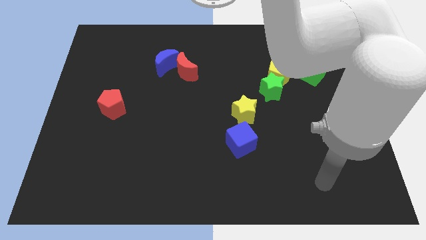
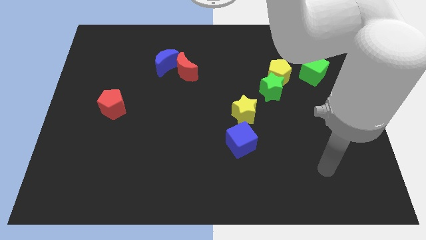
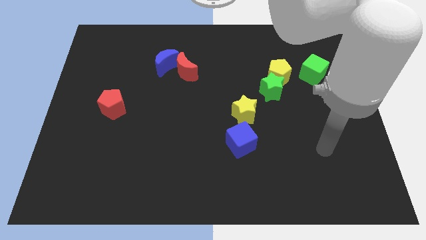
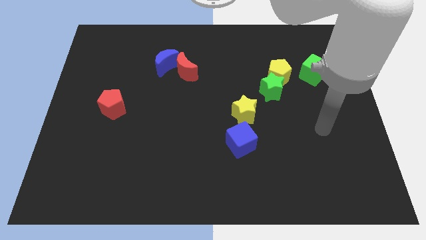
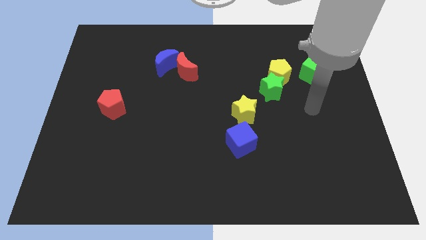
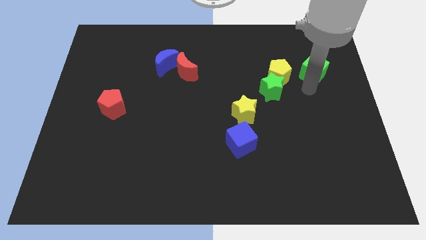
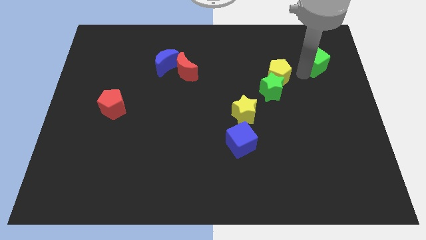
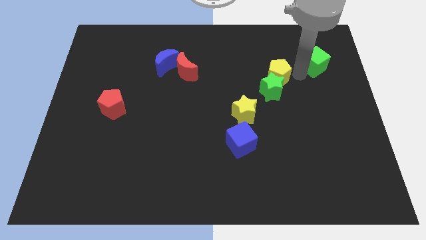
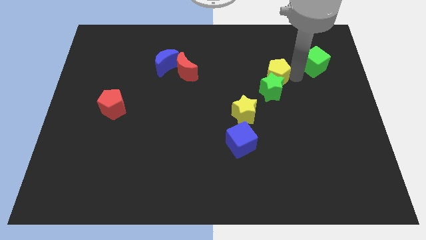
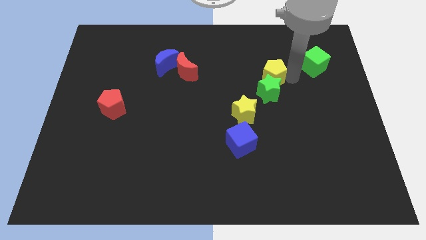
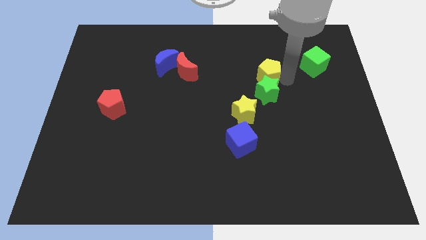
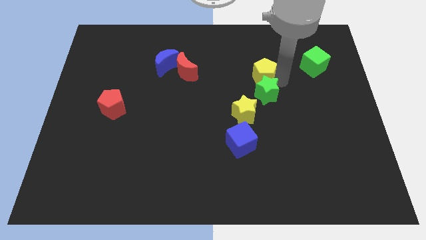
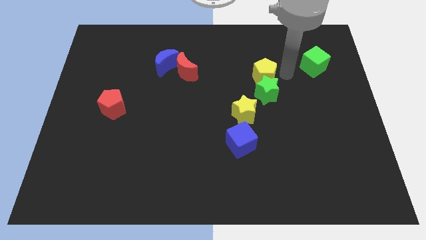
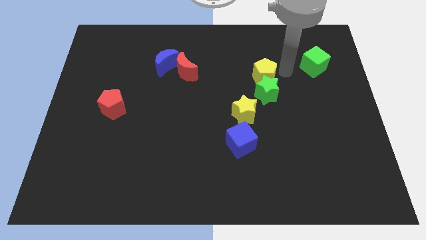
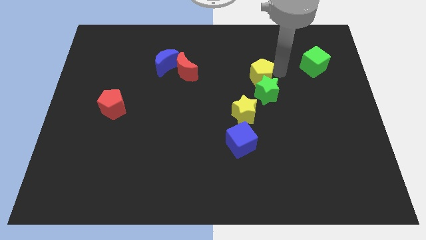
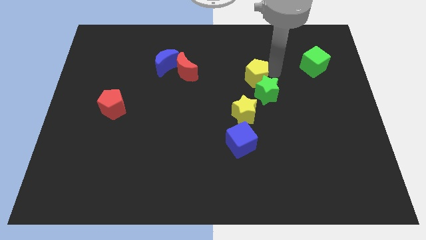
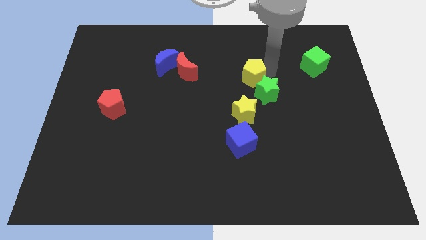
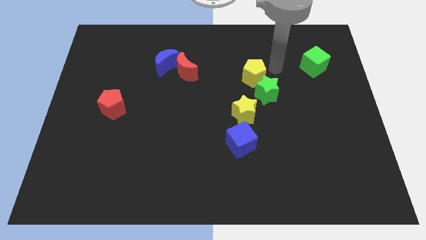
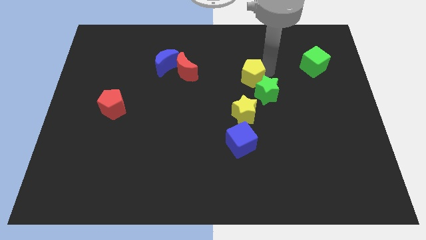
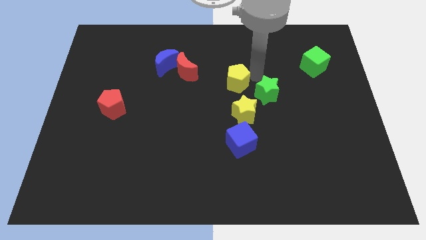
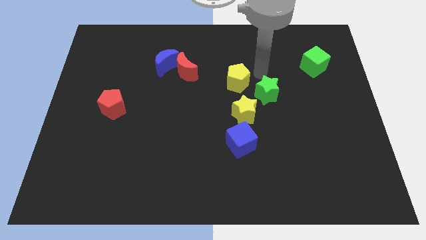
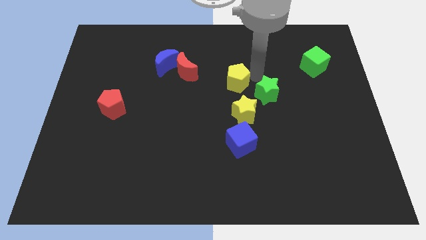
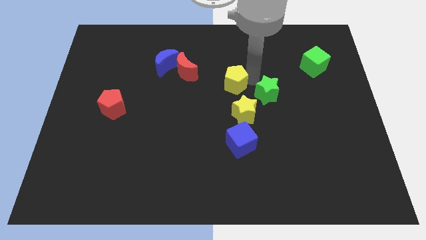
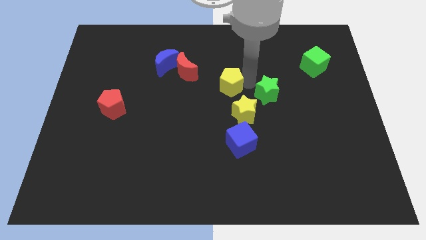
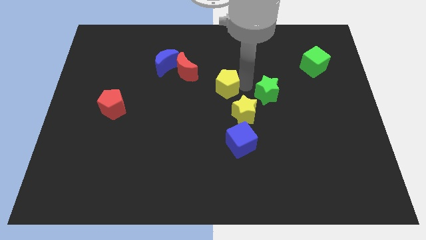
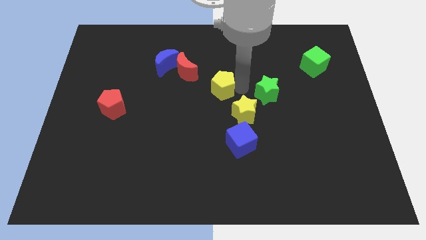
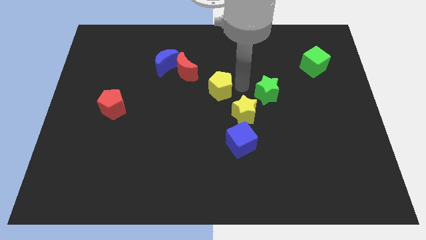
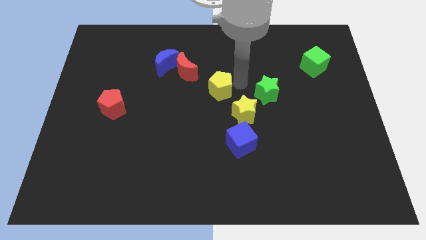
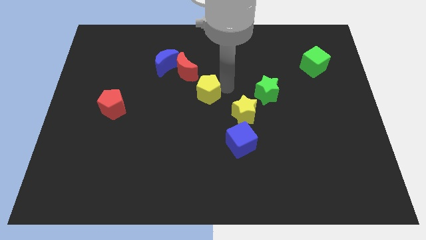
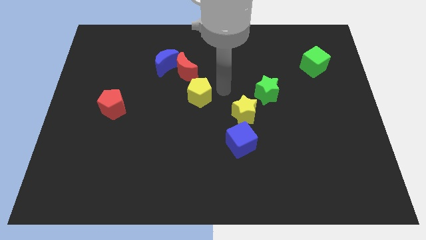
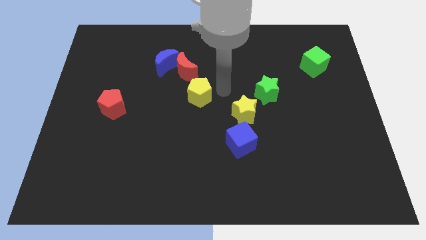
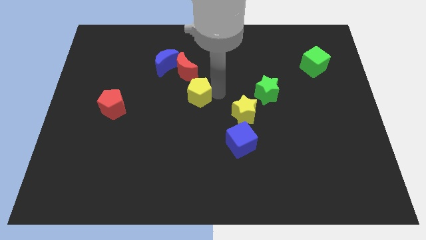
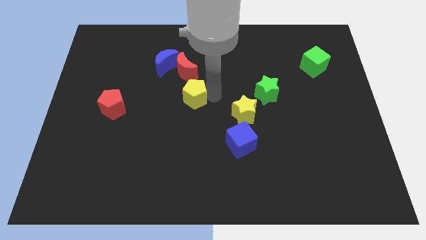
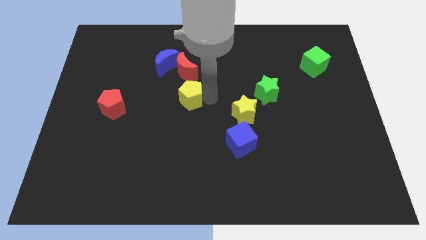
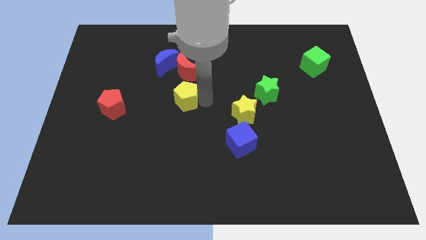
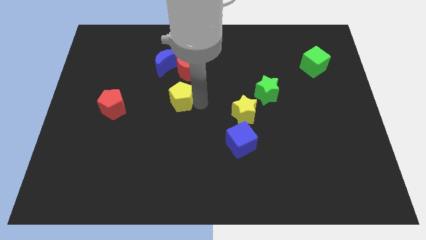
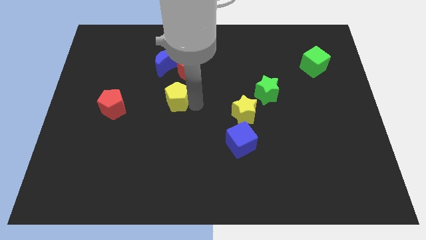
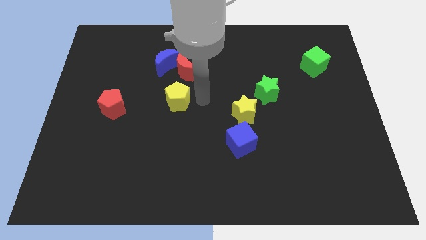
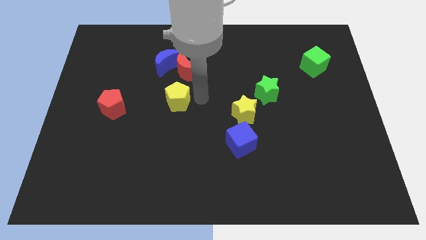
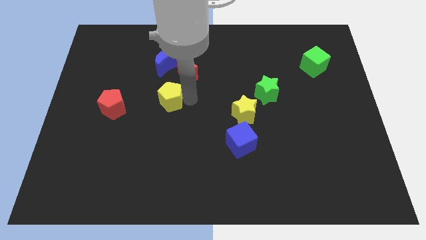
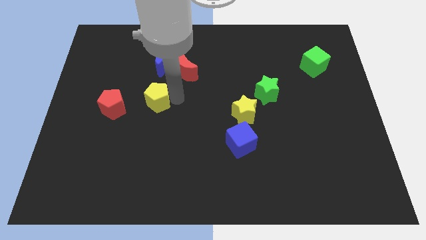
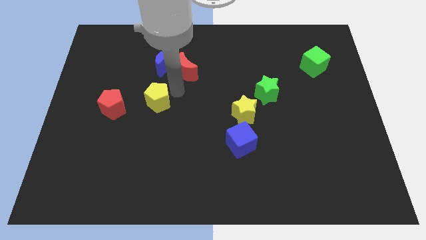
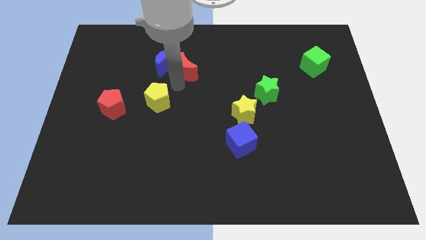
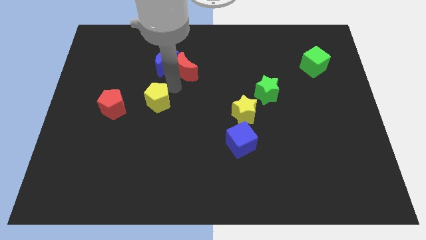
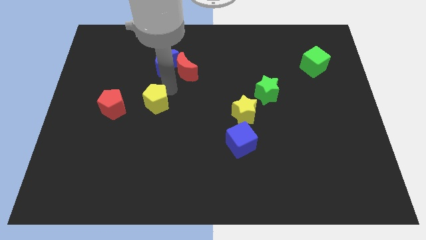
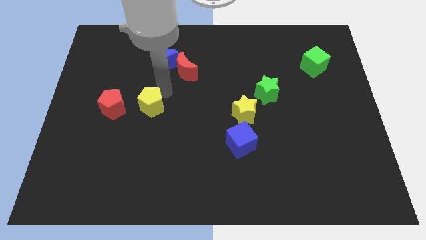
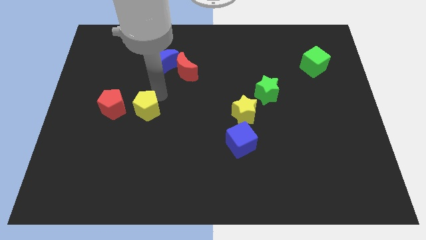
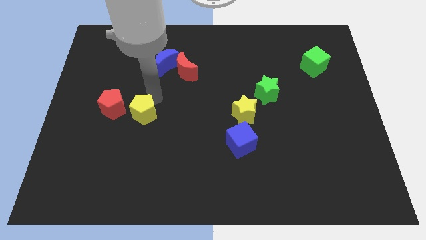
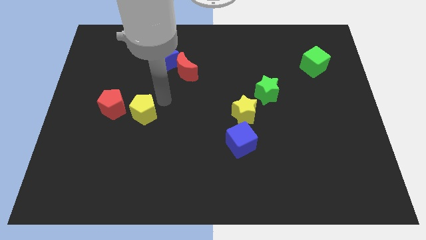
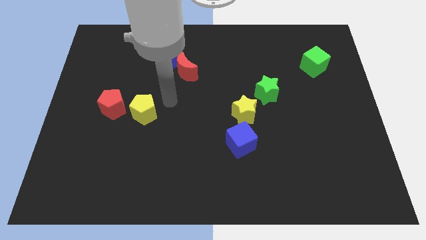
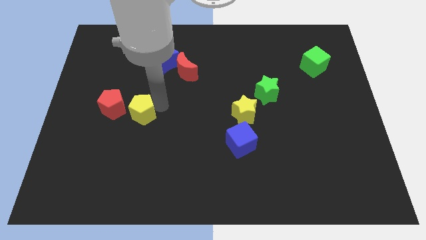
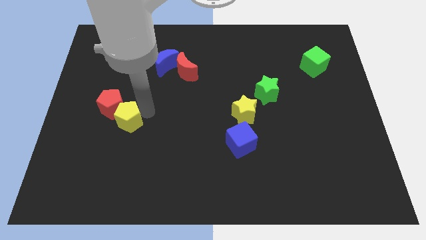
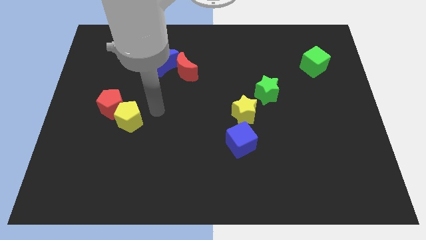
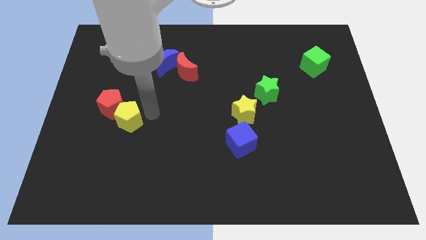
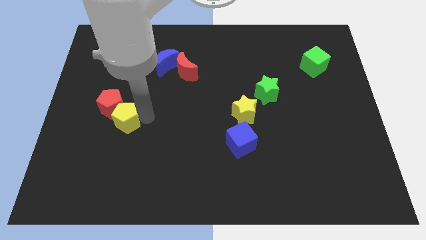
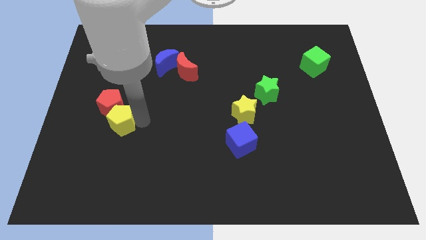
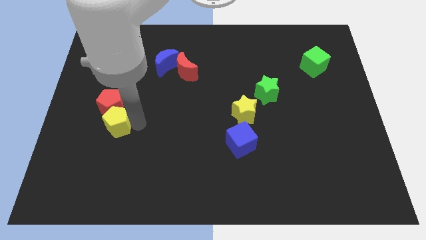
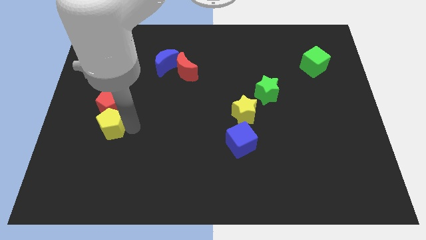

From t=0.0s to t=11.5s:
put the yellow pentagon diagonally down and to the left of the red pentagon

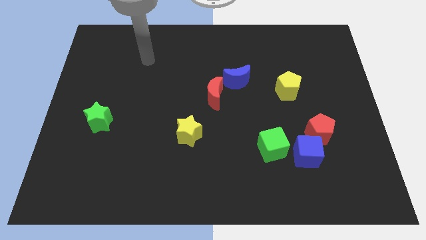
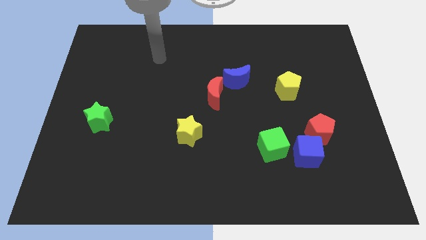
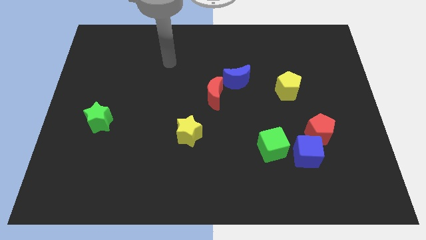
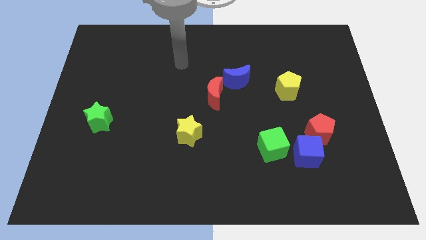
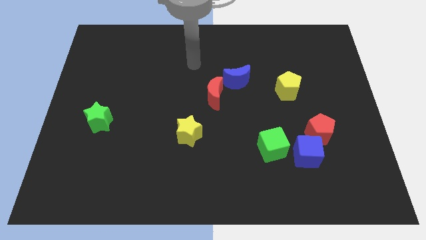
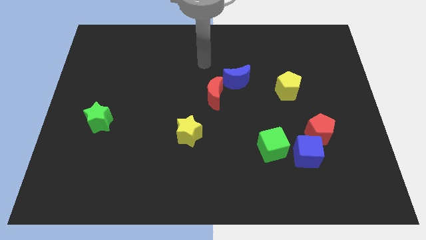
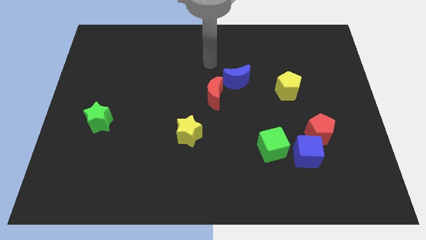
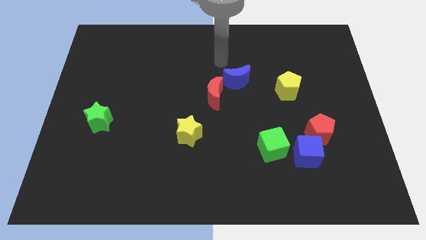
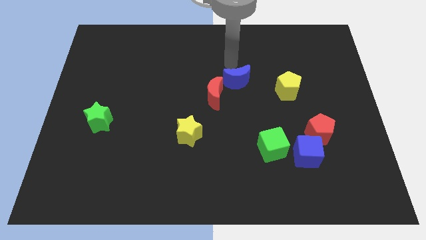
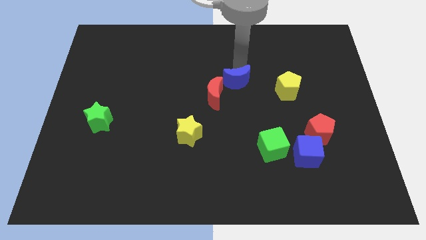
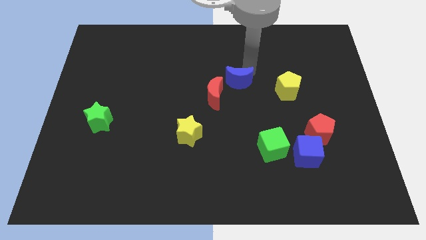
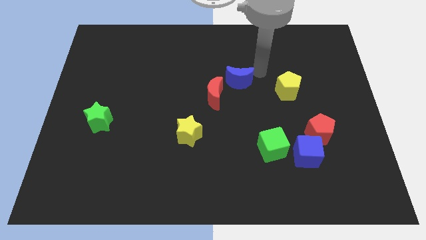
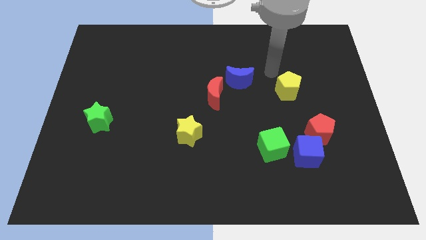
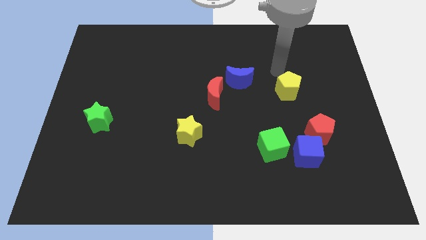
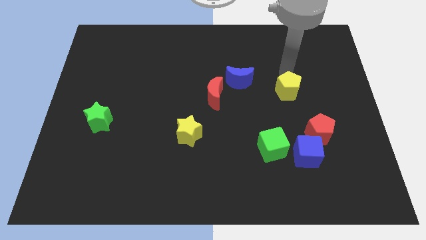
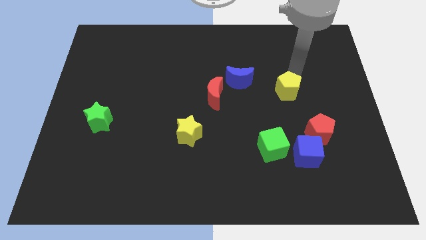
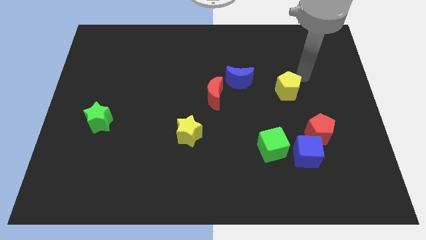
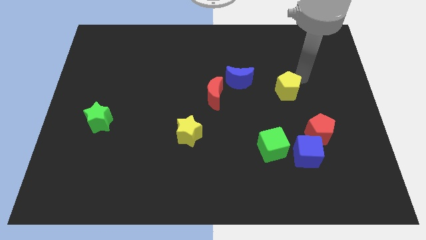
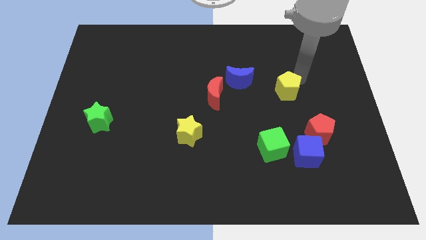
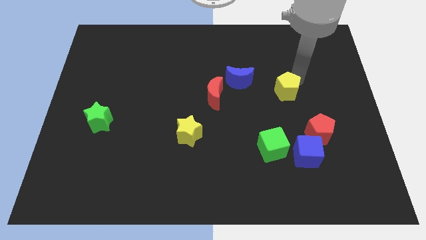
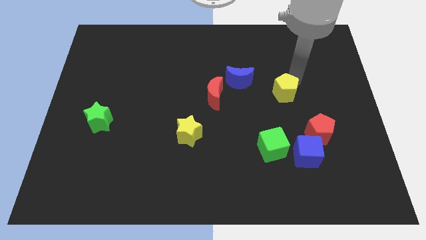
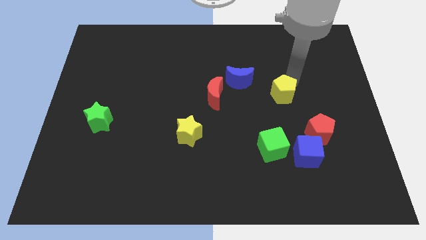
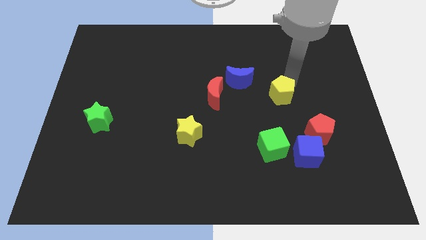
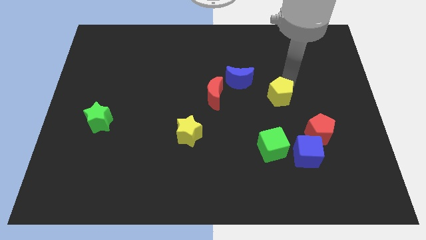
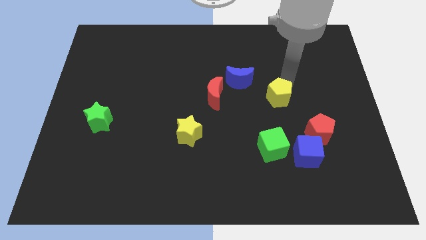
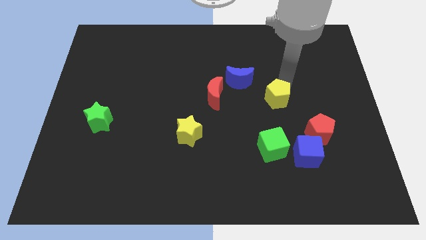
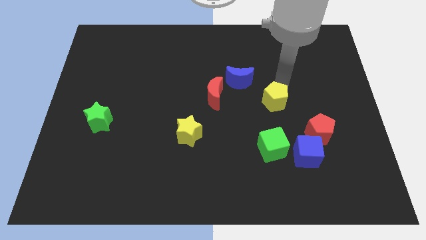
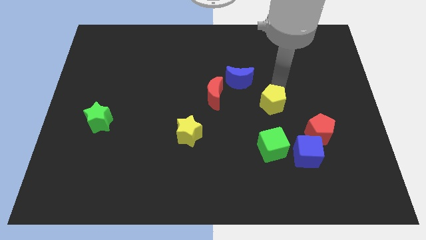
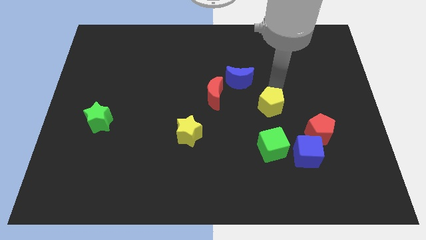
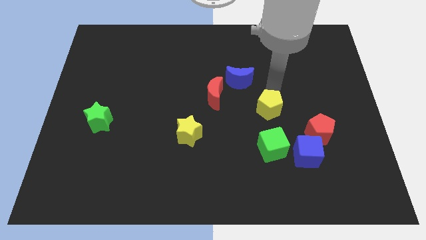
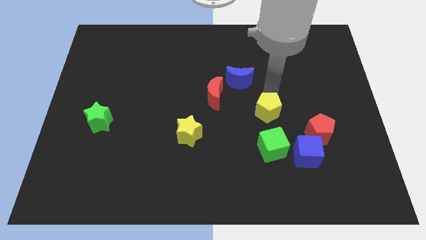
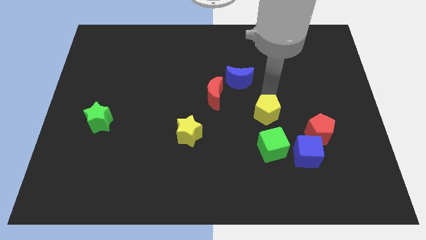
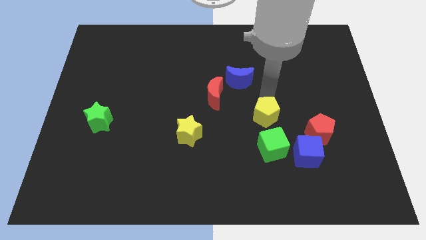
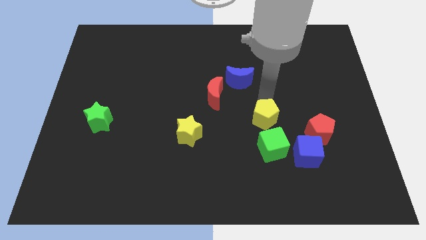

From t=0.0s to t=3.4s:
move the yellow pentagon to the top left of the green cube
